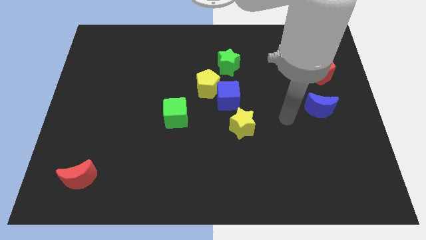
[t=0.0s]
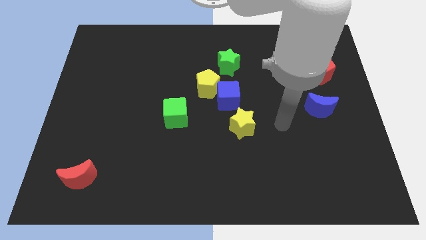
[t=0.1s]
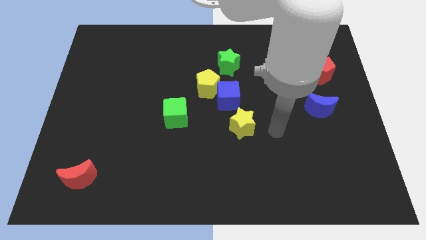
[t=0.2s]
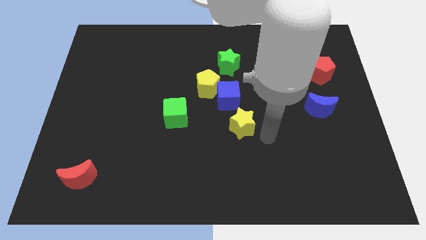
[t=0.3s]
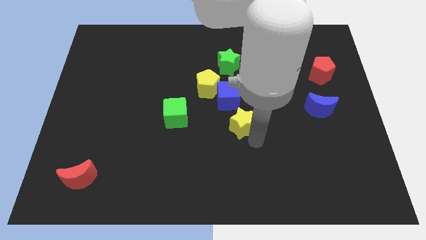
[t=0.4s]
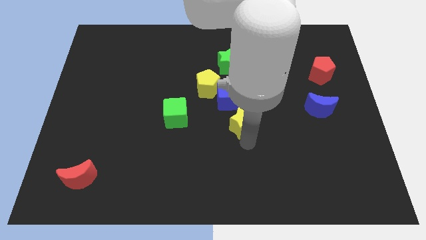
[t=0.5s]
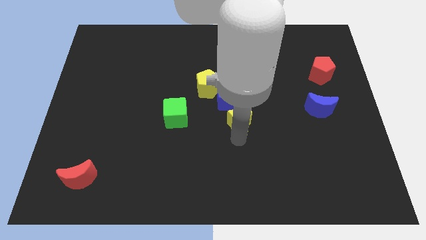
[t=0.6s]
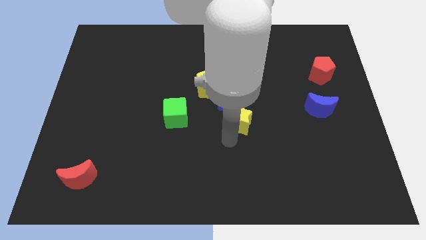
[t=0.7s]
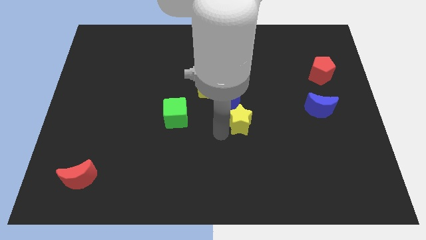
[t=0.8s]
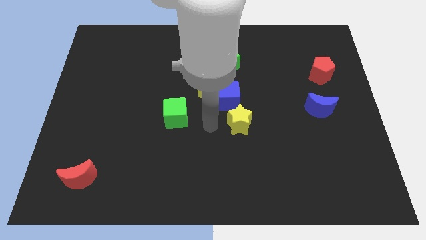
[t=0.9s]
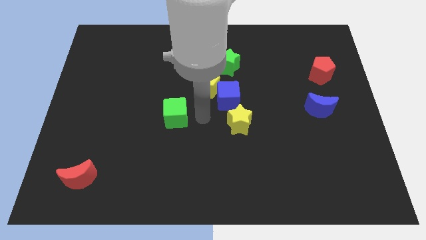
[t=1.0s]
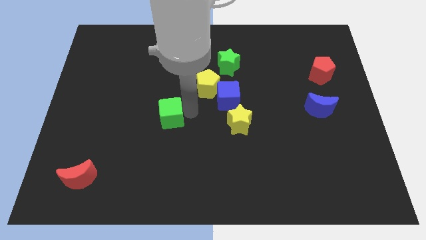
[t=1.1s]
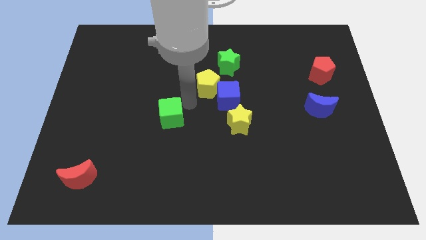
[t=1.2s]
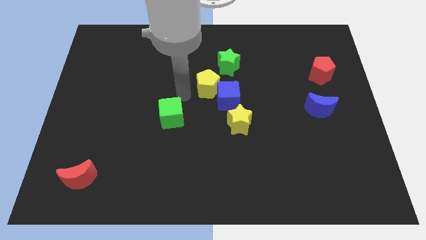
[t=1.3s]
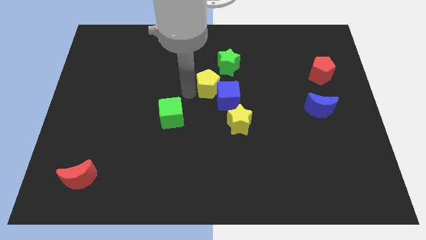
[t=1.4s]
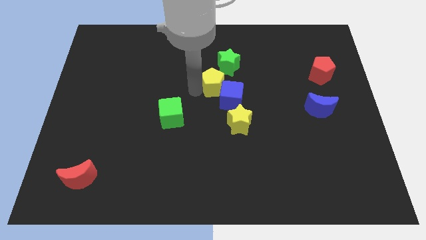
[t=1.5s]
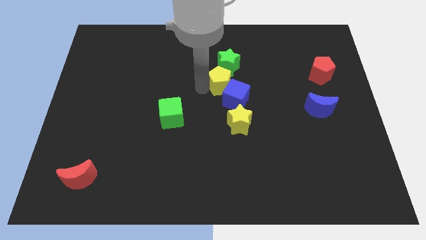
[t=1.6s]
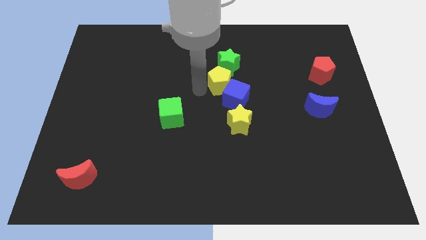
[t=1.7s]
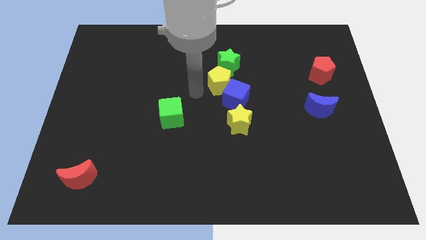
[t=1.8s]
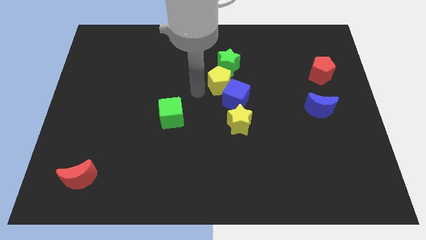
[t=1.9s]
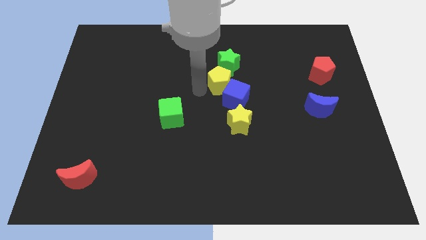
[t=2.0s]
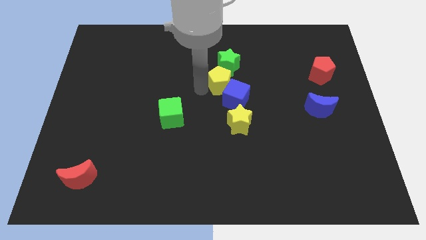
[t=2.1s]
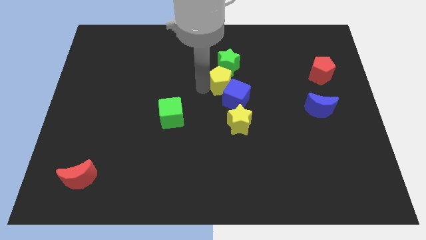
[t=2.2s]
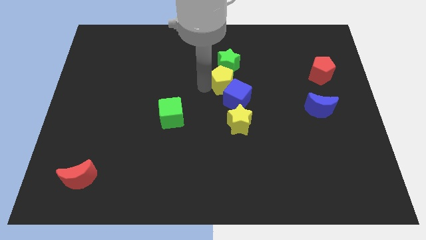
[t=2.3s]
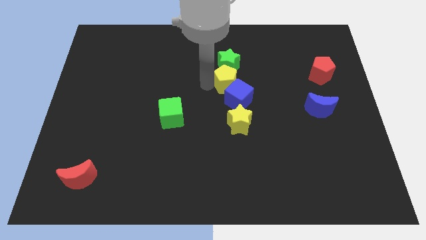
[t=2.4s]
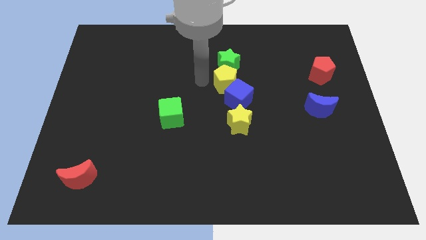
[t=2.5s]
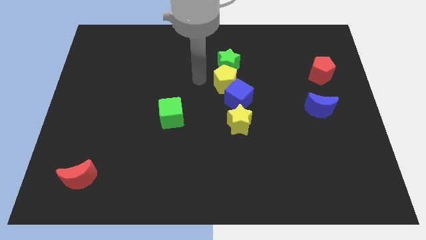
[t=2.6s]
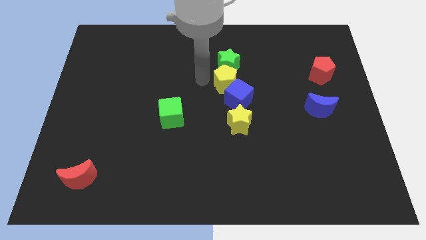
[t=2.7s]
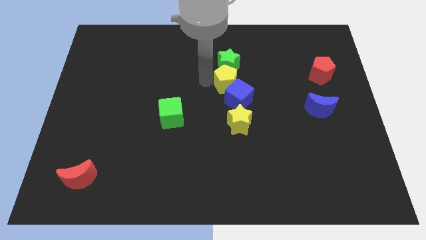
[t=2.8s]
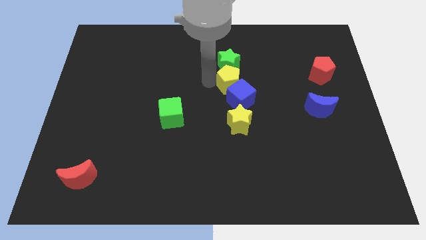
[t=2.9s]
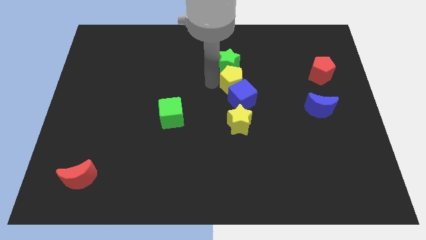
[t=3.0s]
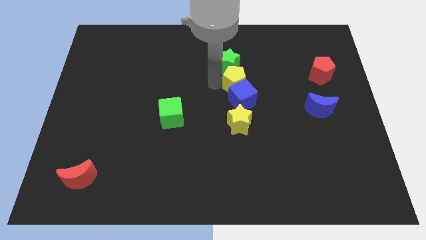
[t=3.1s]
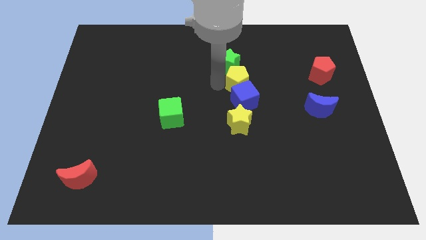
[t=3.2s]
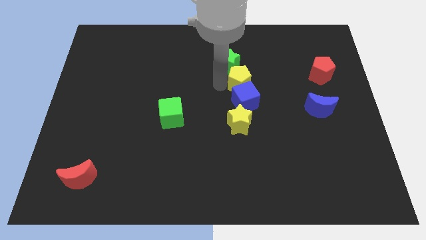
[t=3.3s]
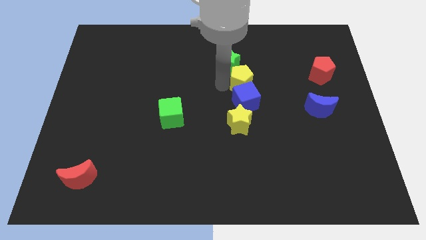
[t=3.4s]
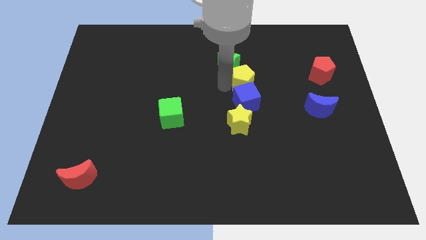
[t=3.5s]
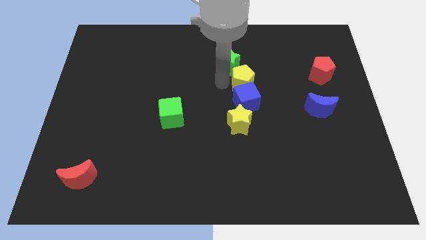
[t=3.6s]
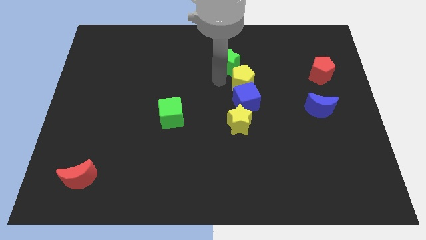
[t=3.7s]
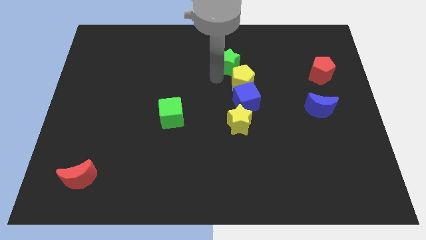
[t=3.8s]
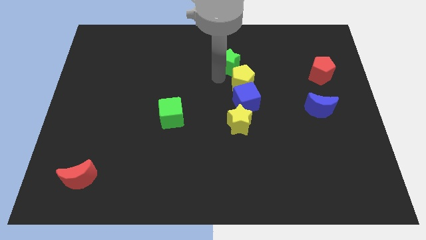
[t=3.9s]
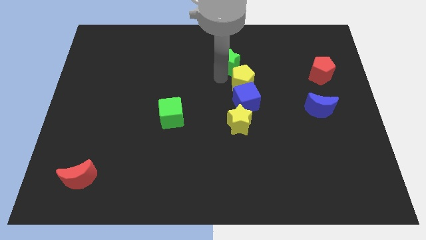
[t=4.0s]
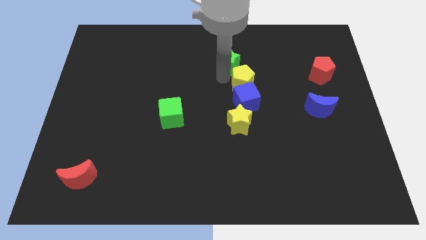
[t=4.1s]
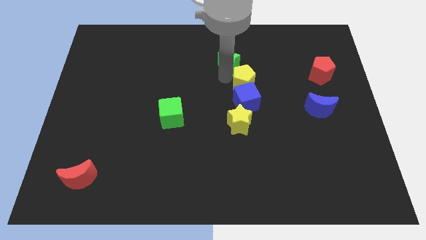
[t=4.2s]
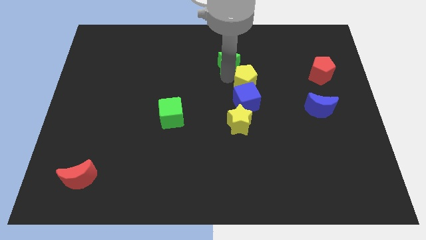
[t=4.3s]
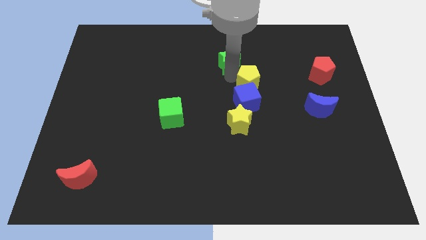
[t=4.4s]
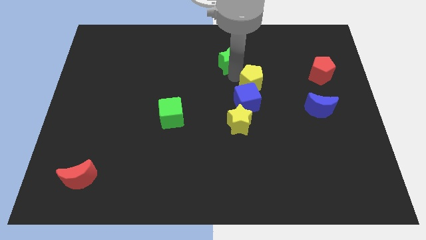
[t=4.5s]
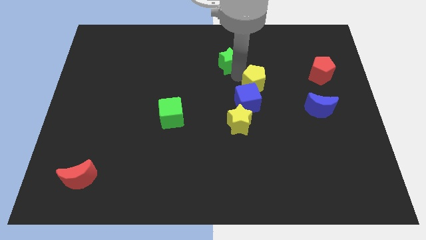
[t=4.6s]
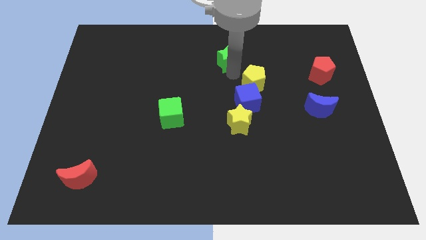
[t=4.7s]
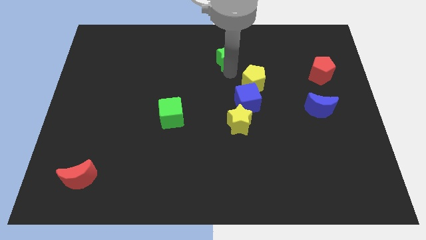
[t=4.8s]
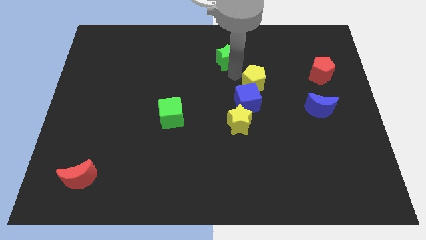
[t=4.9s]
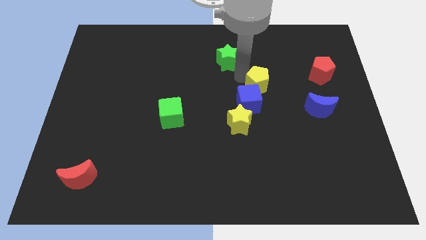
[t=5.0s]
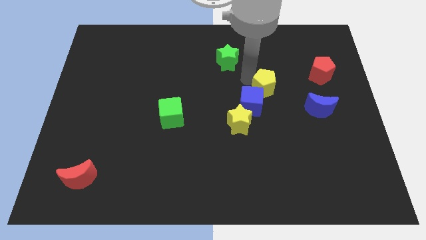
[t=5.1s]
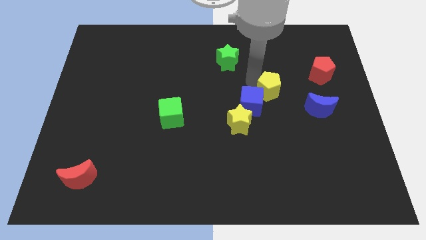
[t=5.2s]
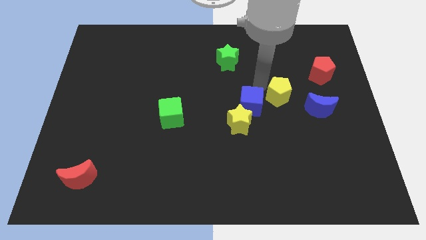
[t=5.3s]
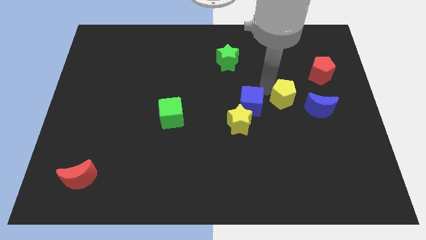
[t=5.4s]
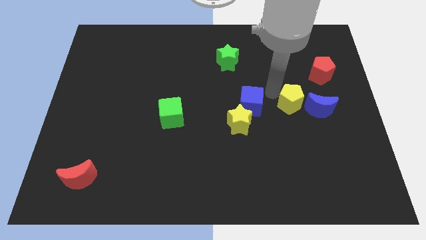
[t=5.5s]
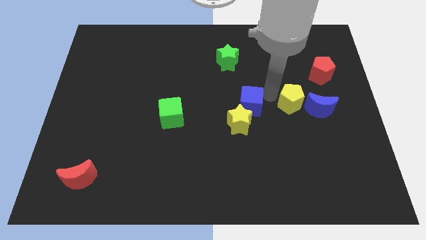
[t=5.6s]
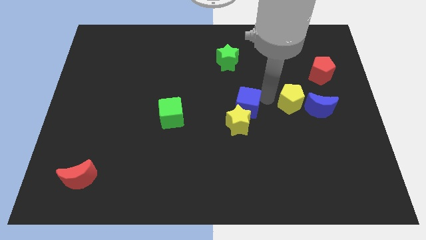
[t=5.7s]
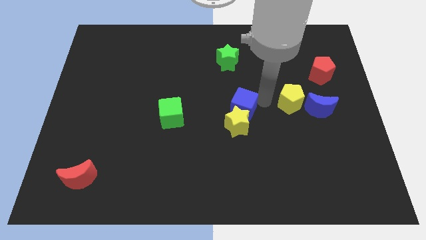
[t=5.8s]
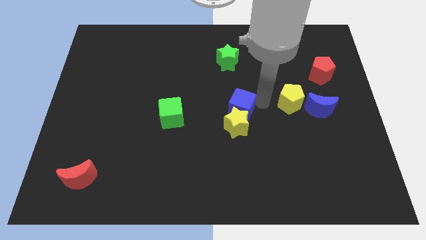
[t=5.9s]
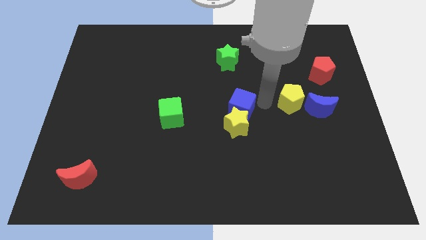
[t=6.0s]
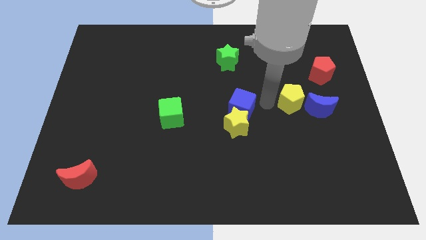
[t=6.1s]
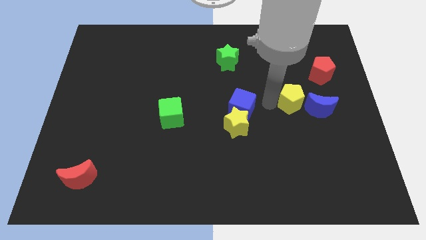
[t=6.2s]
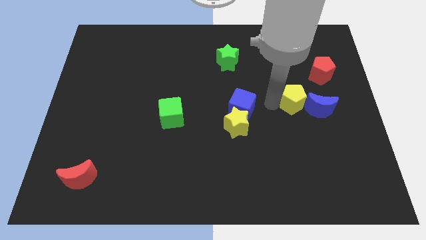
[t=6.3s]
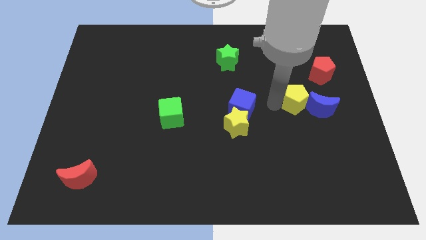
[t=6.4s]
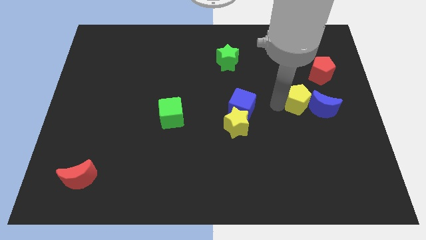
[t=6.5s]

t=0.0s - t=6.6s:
slide the yellow pentagon towards the blue moon

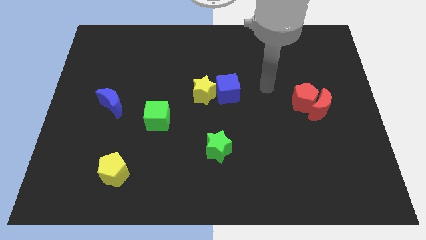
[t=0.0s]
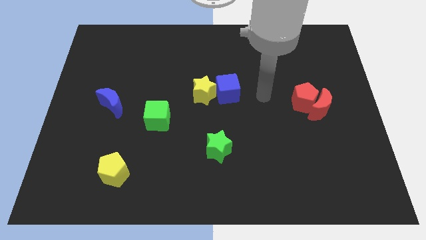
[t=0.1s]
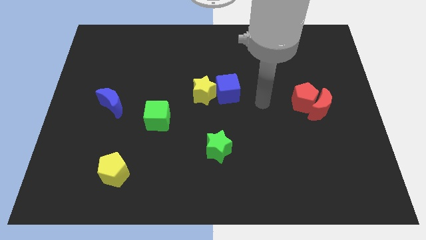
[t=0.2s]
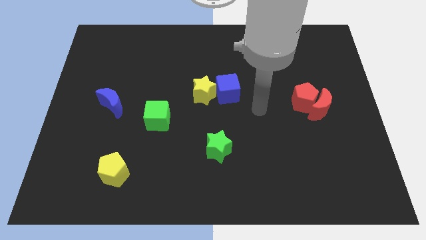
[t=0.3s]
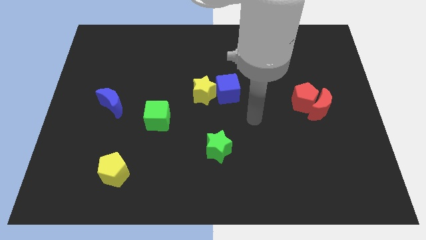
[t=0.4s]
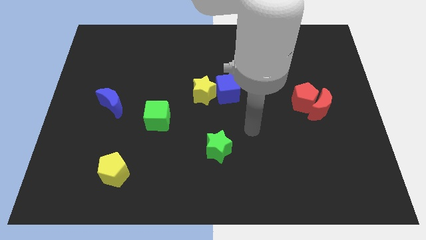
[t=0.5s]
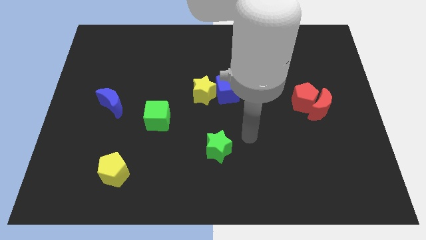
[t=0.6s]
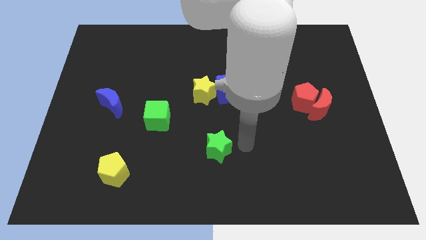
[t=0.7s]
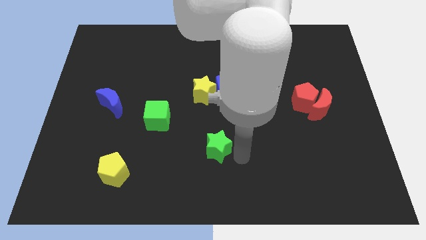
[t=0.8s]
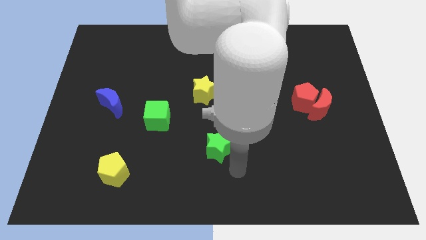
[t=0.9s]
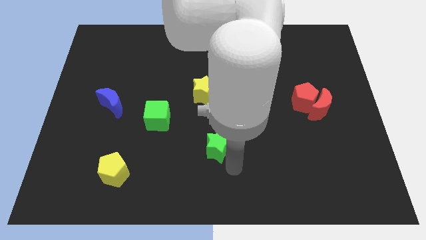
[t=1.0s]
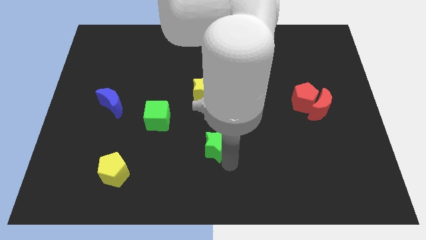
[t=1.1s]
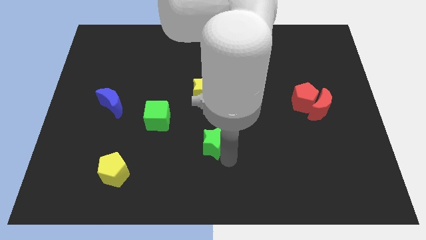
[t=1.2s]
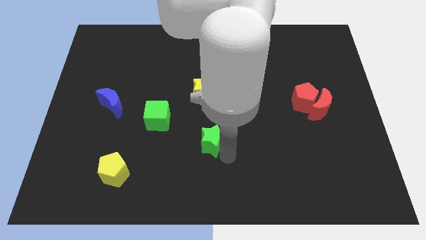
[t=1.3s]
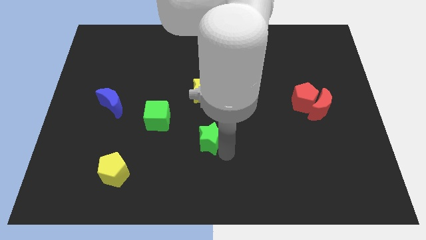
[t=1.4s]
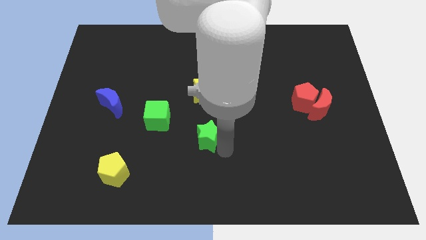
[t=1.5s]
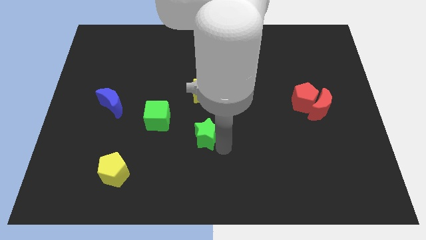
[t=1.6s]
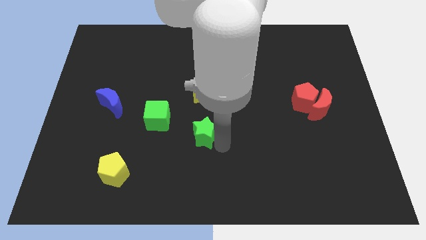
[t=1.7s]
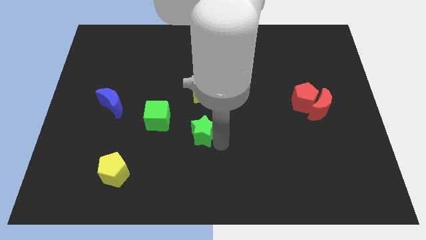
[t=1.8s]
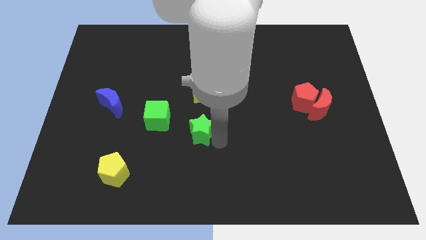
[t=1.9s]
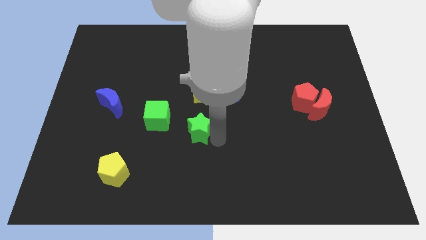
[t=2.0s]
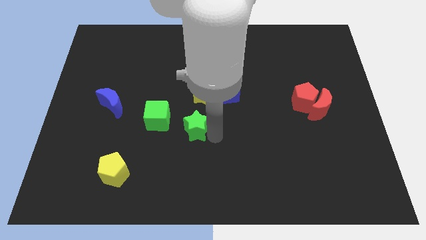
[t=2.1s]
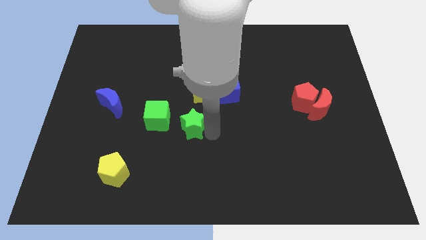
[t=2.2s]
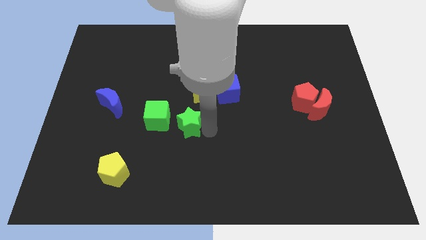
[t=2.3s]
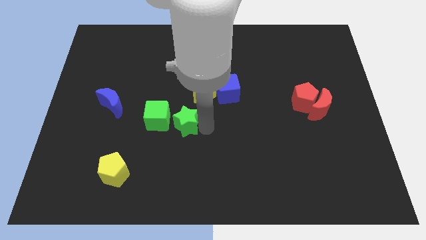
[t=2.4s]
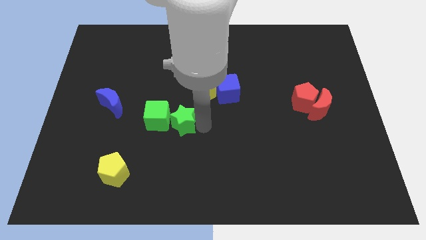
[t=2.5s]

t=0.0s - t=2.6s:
put the green star next to the green cube
